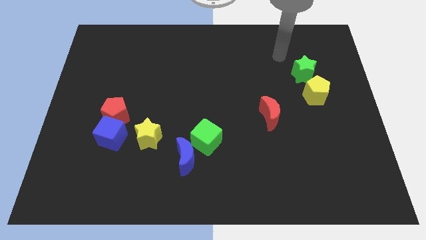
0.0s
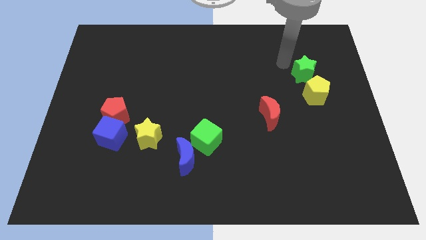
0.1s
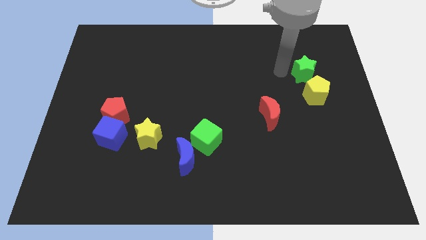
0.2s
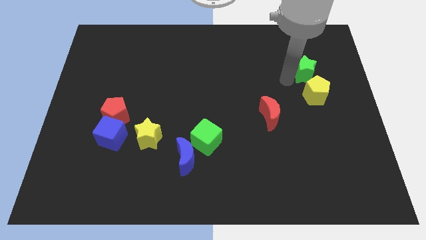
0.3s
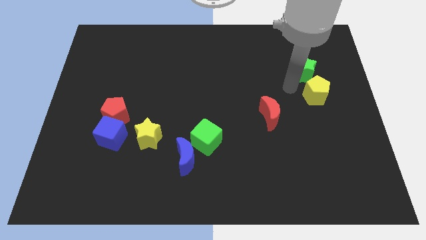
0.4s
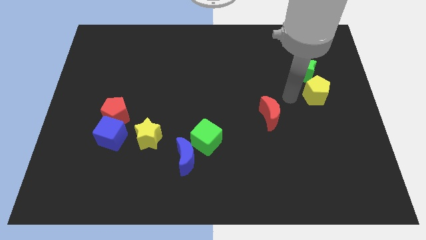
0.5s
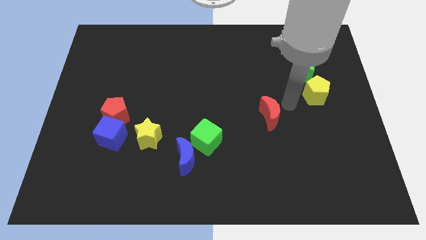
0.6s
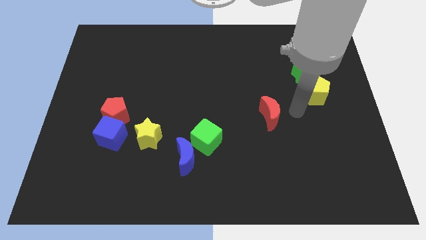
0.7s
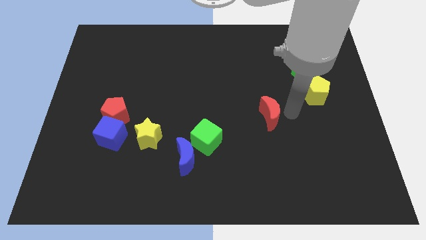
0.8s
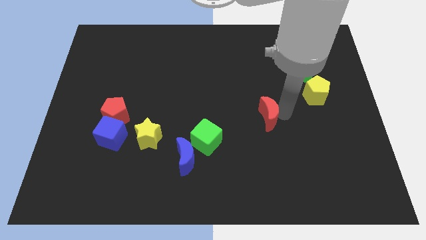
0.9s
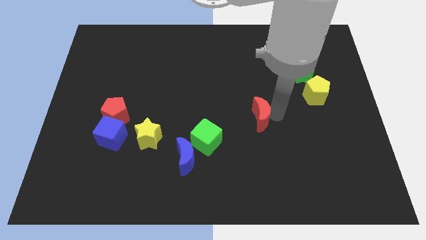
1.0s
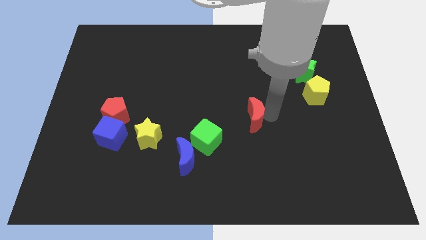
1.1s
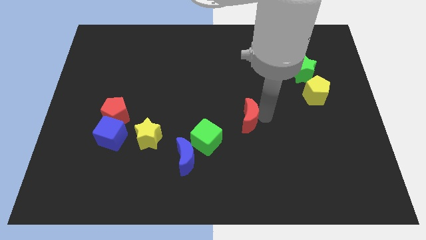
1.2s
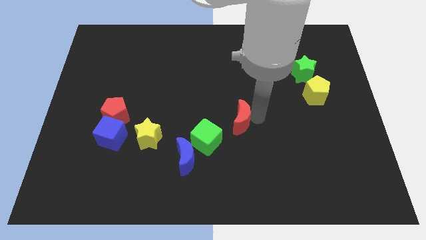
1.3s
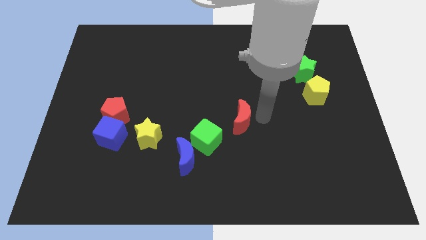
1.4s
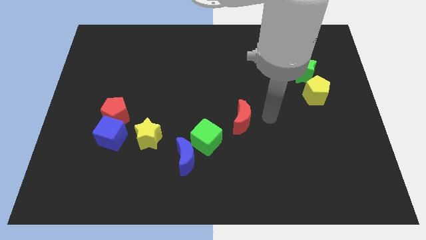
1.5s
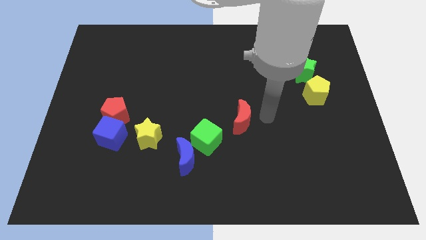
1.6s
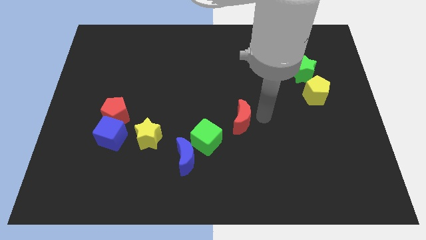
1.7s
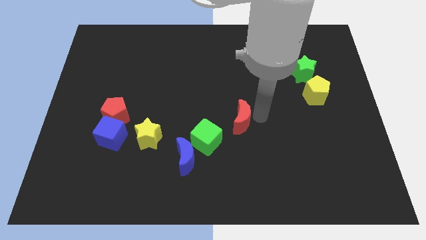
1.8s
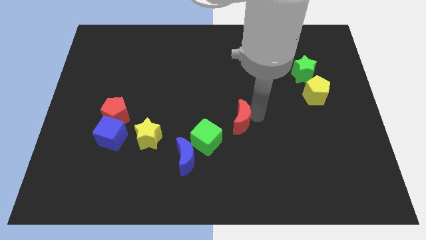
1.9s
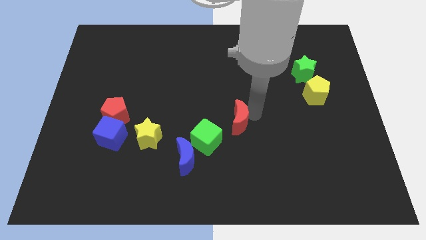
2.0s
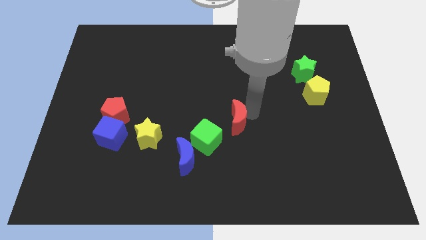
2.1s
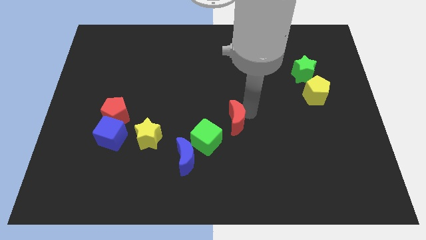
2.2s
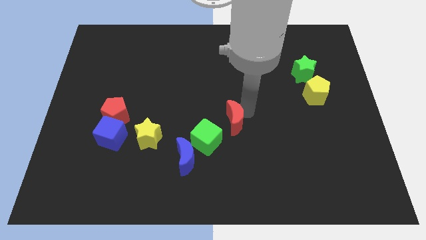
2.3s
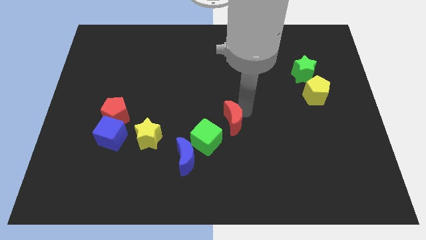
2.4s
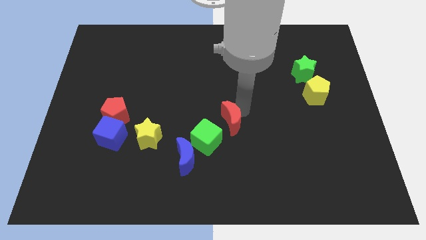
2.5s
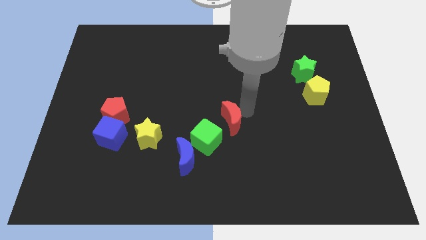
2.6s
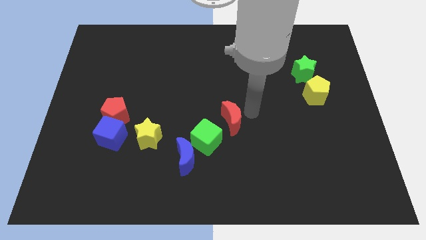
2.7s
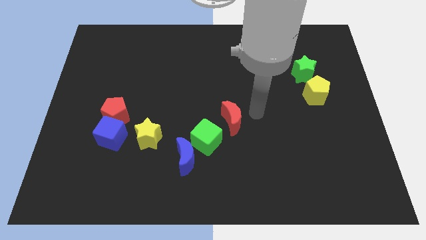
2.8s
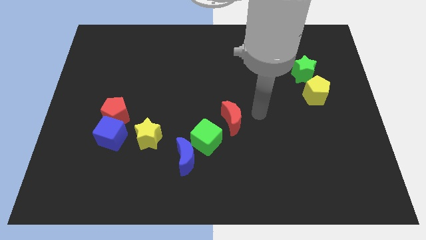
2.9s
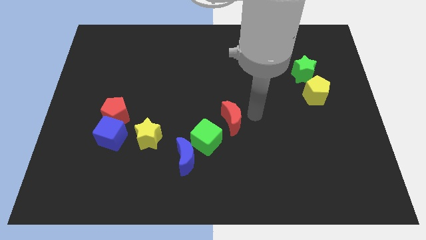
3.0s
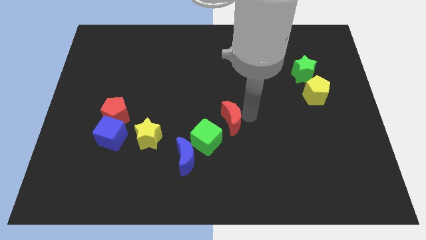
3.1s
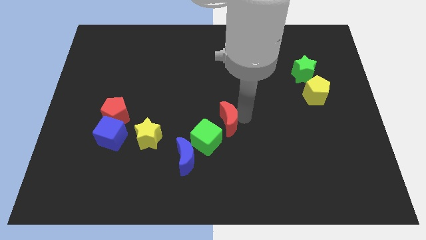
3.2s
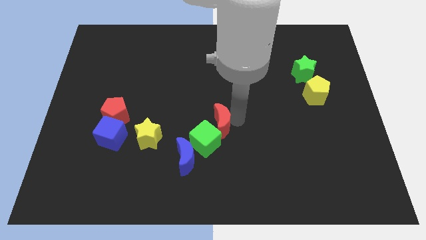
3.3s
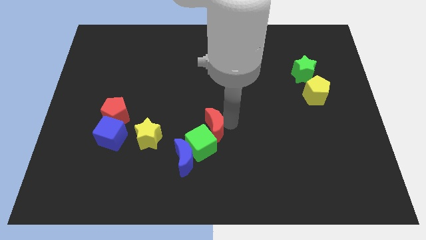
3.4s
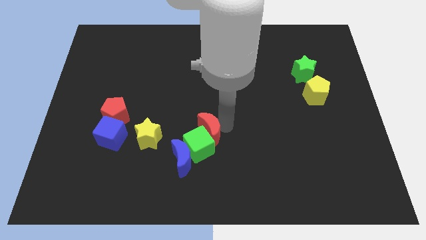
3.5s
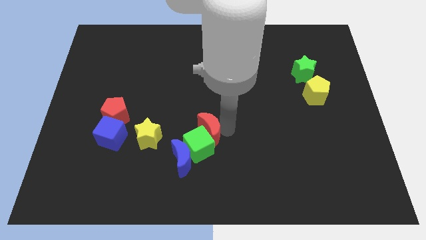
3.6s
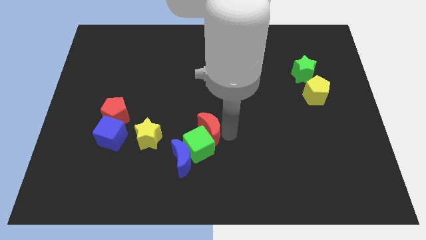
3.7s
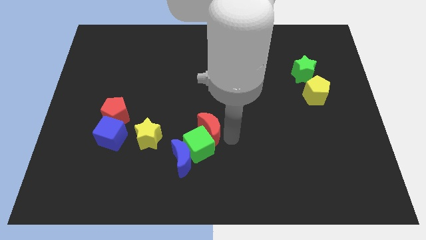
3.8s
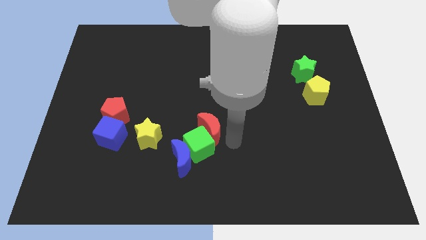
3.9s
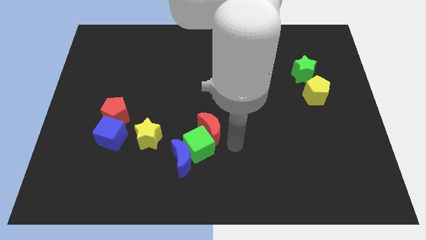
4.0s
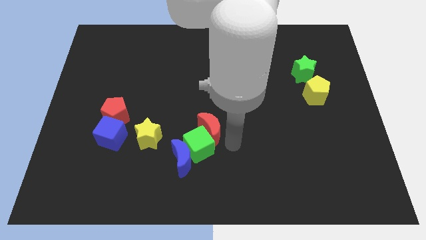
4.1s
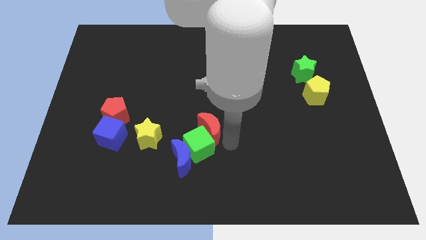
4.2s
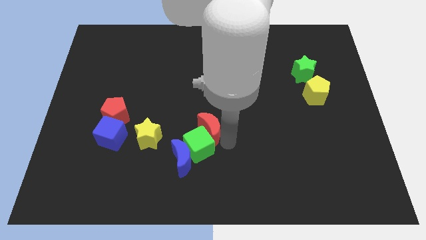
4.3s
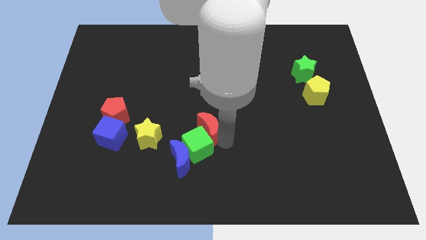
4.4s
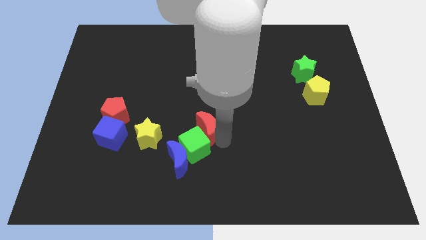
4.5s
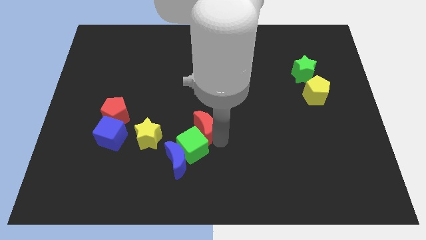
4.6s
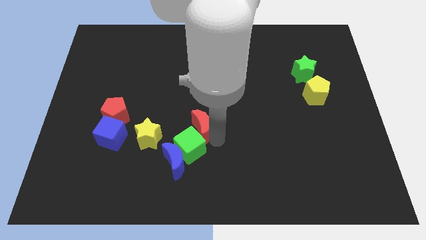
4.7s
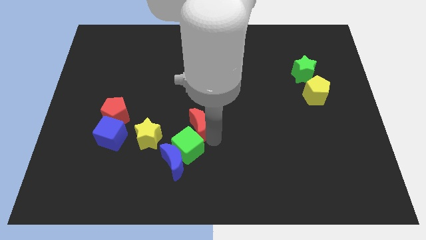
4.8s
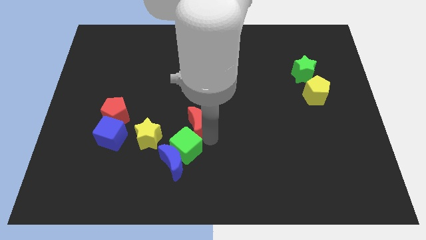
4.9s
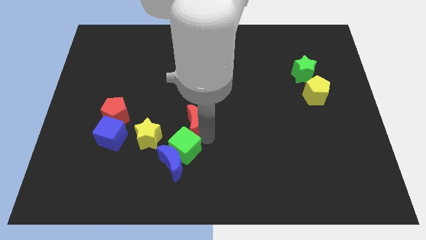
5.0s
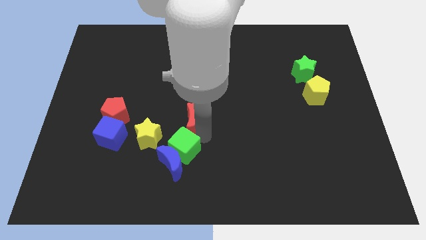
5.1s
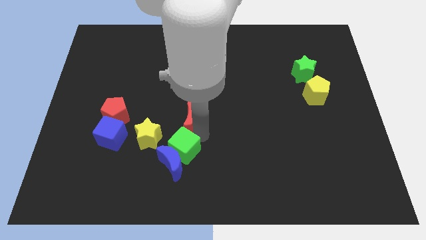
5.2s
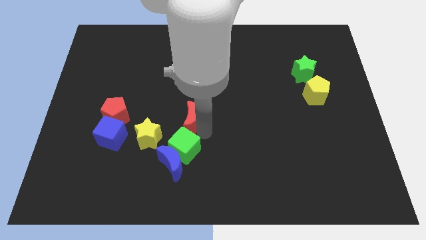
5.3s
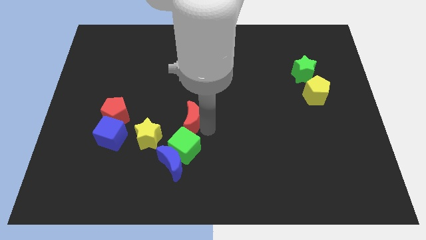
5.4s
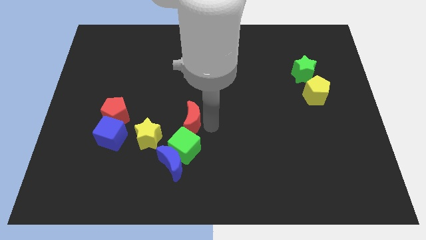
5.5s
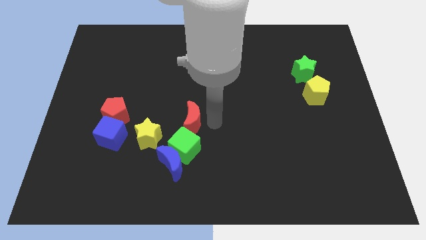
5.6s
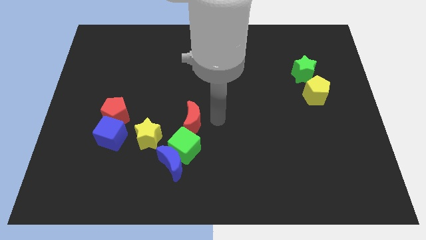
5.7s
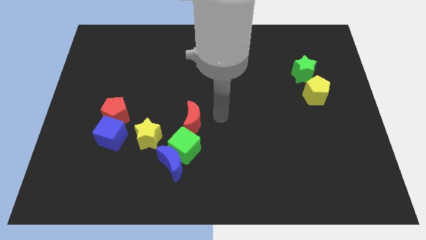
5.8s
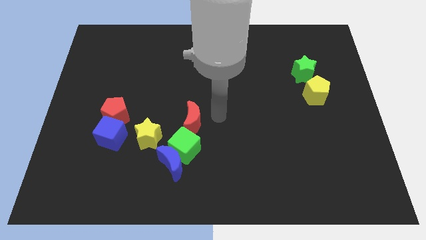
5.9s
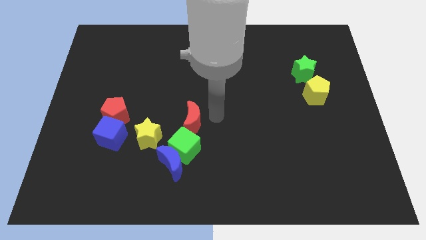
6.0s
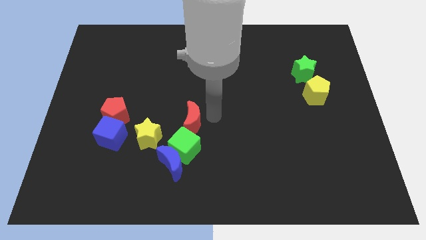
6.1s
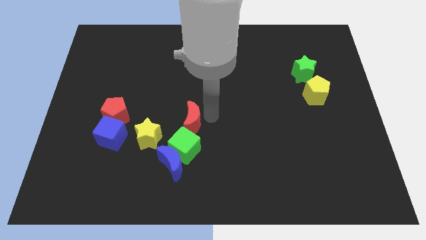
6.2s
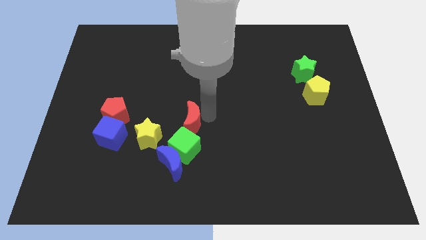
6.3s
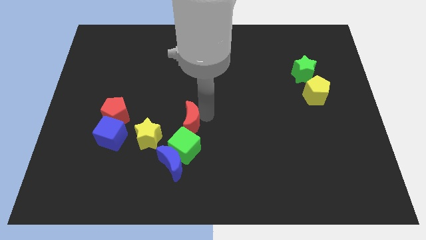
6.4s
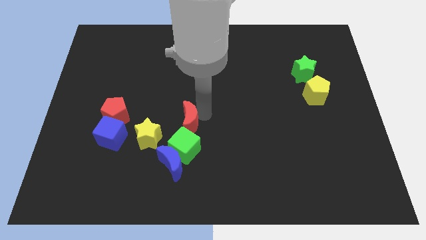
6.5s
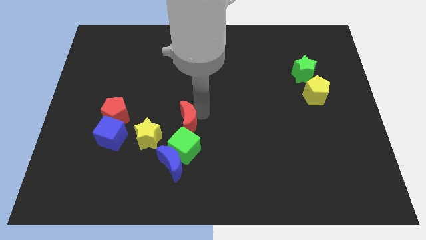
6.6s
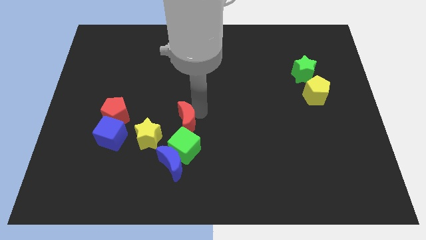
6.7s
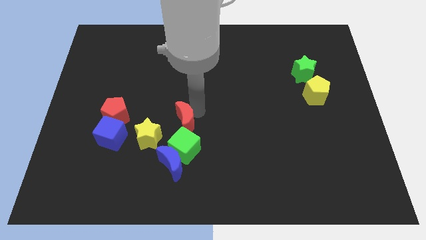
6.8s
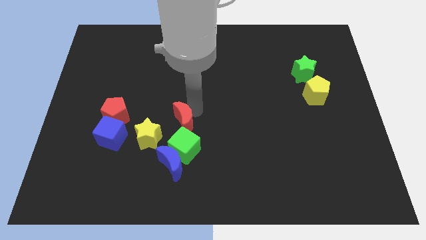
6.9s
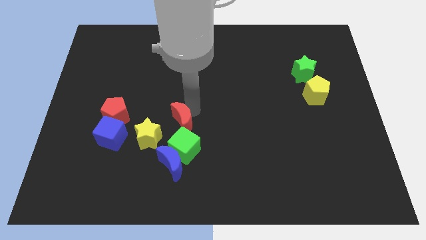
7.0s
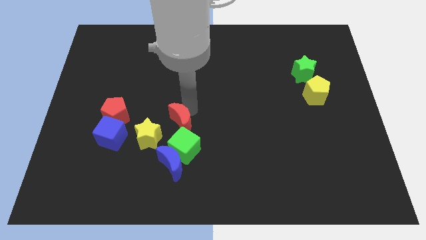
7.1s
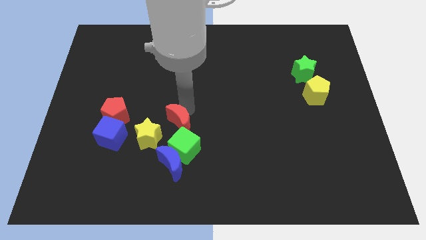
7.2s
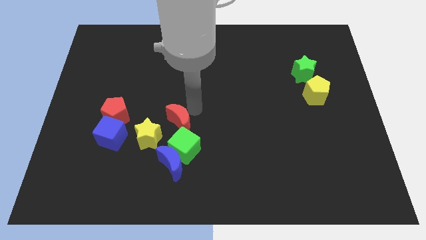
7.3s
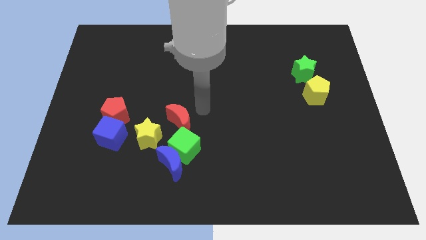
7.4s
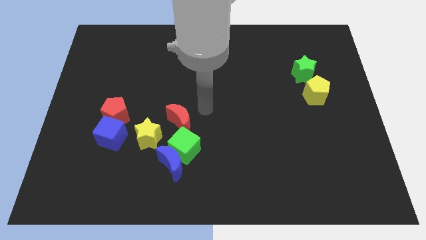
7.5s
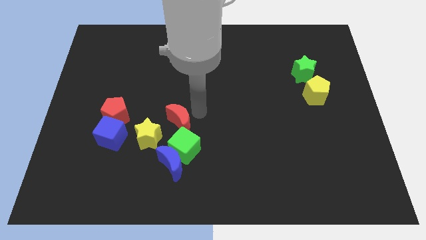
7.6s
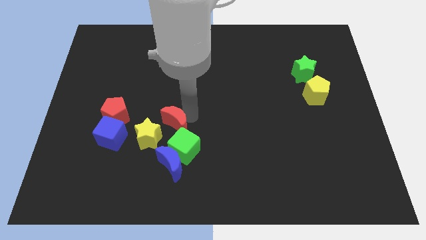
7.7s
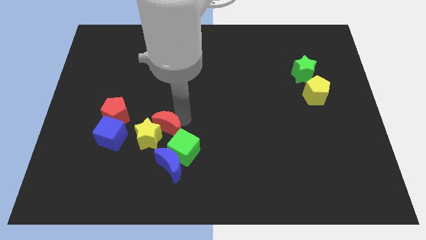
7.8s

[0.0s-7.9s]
push the red moon to the yellow star
